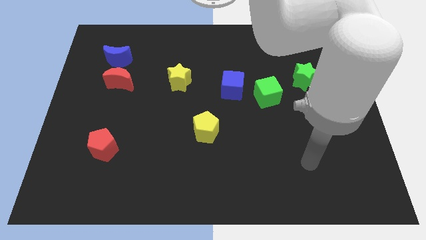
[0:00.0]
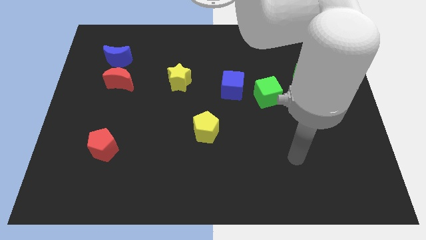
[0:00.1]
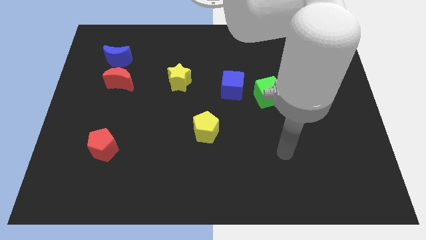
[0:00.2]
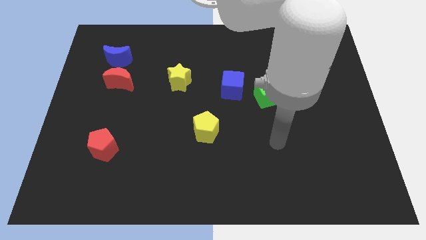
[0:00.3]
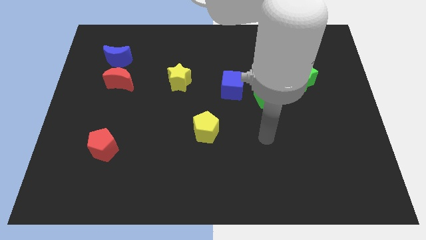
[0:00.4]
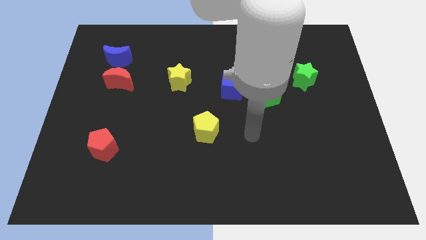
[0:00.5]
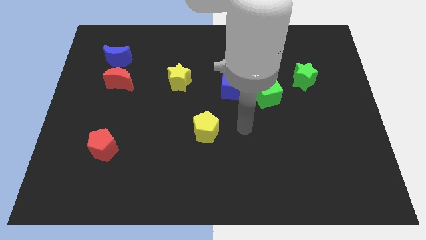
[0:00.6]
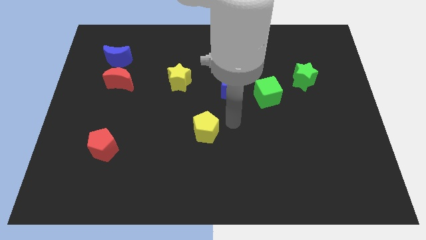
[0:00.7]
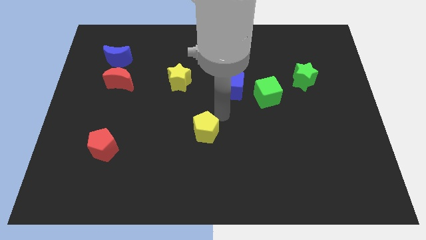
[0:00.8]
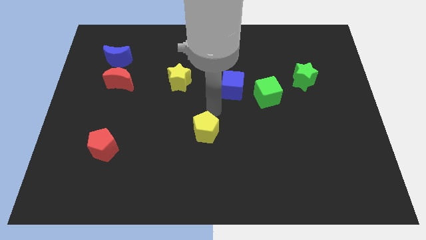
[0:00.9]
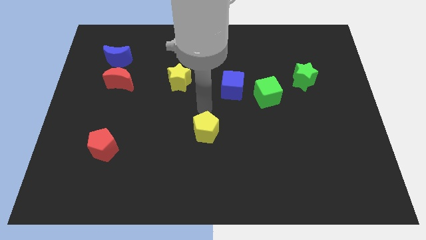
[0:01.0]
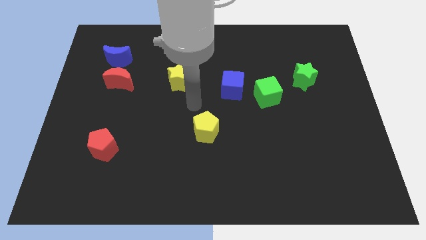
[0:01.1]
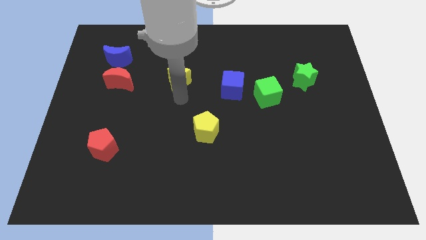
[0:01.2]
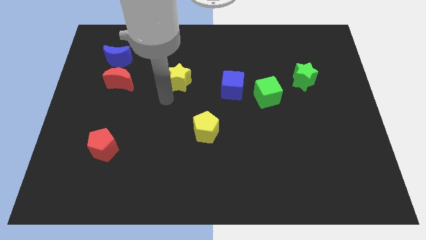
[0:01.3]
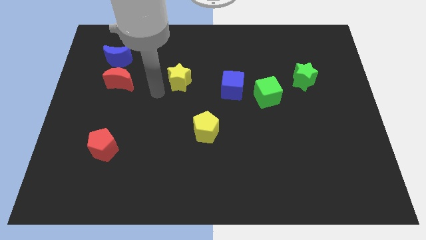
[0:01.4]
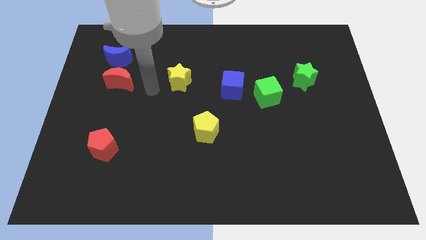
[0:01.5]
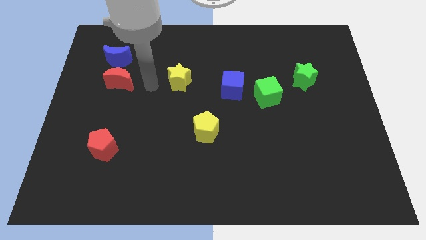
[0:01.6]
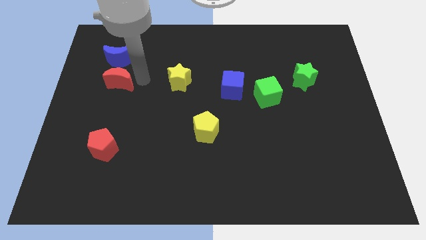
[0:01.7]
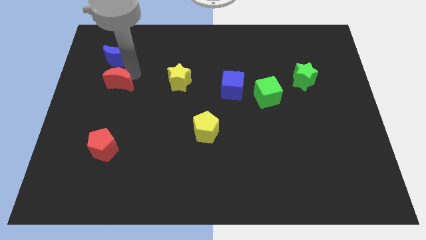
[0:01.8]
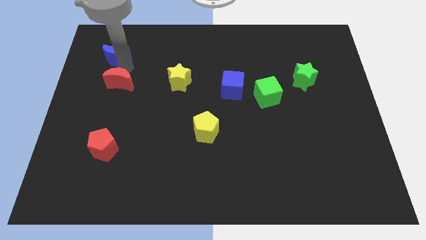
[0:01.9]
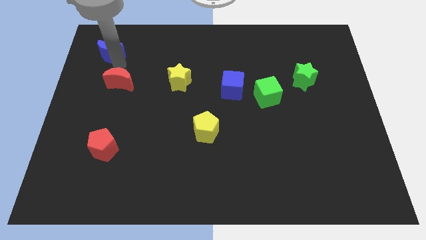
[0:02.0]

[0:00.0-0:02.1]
separate the red moon from the blue moon

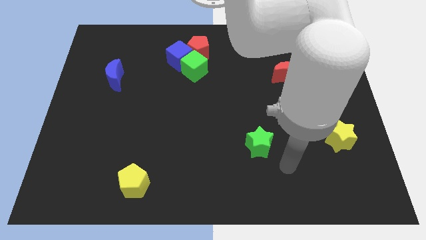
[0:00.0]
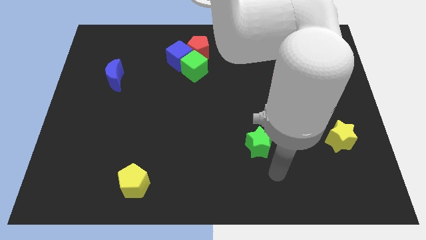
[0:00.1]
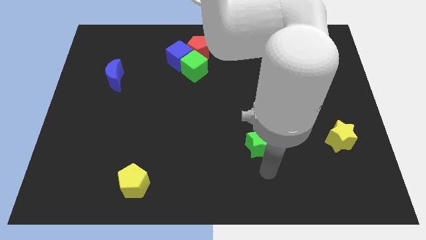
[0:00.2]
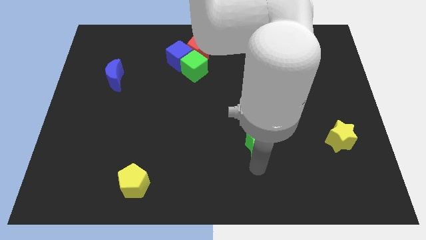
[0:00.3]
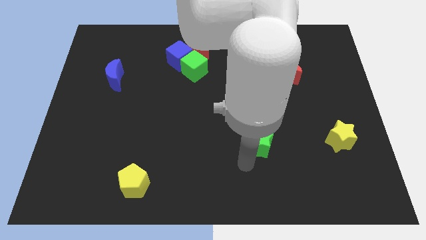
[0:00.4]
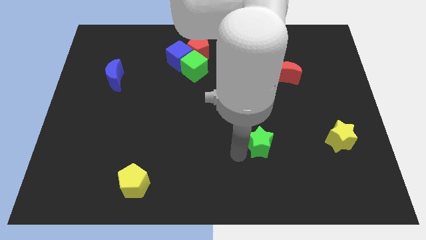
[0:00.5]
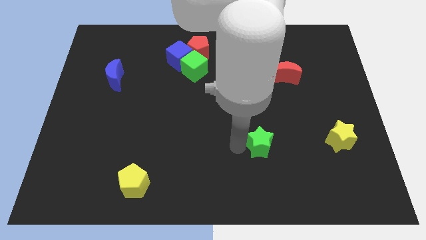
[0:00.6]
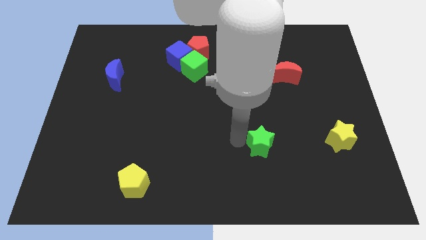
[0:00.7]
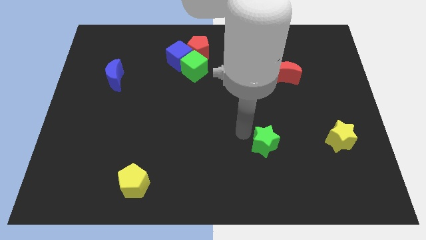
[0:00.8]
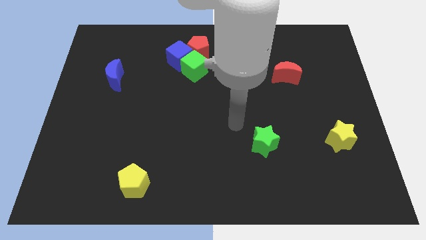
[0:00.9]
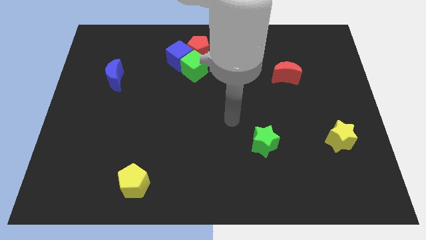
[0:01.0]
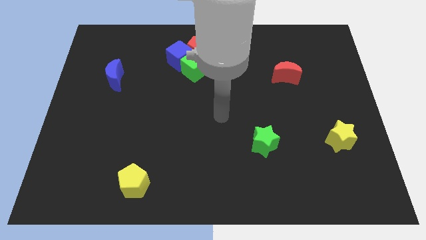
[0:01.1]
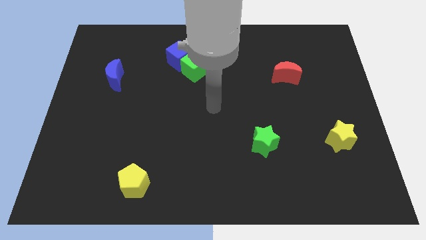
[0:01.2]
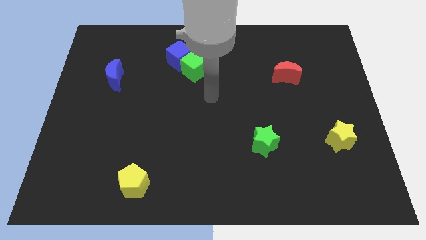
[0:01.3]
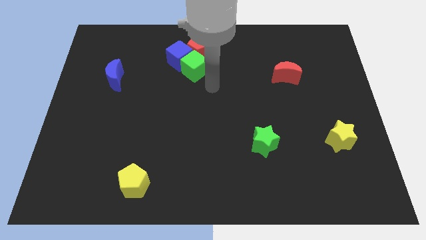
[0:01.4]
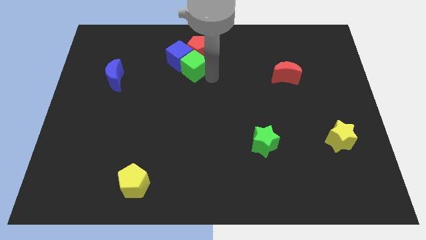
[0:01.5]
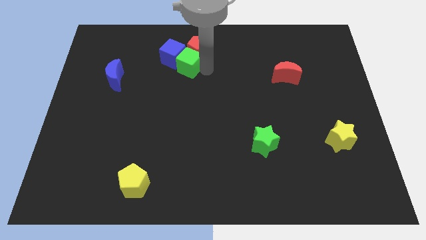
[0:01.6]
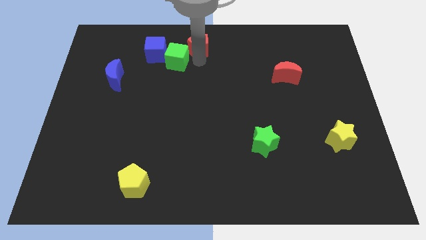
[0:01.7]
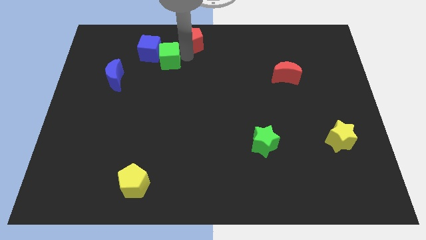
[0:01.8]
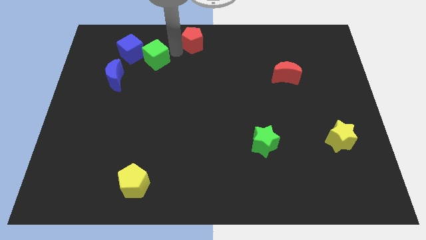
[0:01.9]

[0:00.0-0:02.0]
move the blue cube away from the green cube and red pentagon

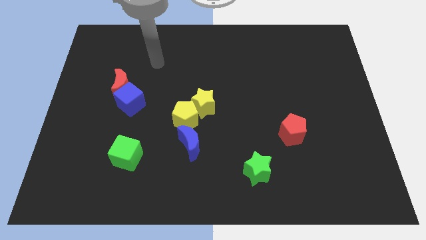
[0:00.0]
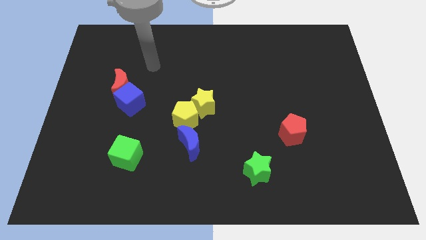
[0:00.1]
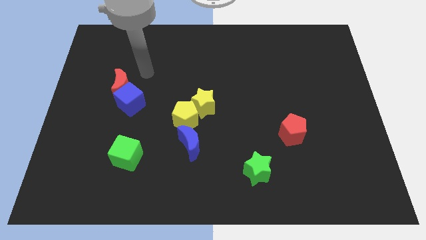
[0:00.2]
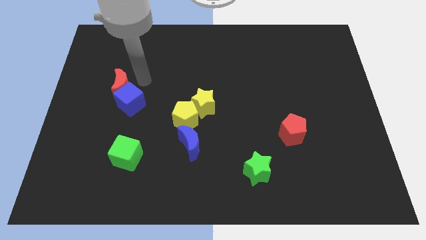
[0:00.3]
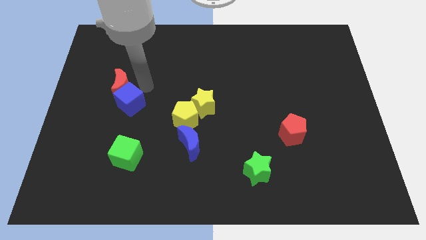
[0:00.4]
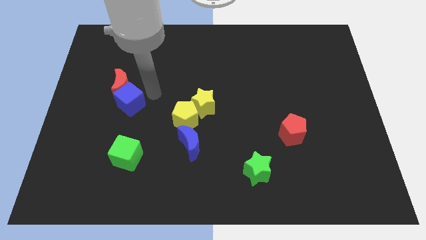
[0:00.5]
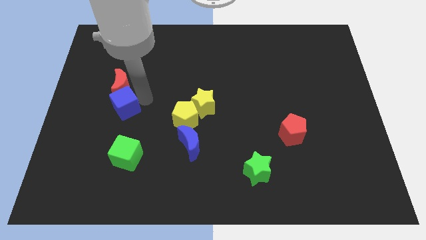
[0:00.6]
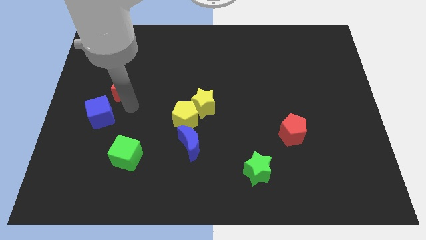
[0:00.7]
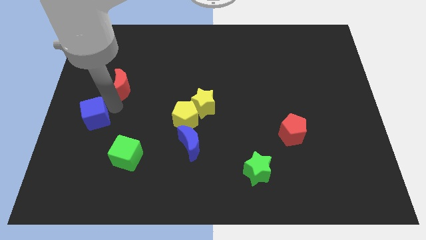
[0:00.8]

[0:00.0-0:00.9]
move the red moon away from the blue cube

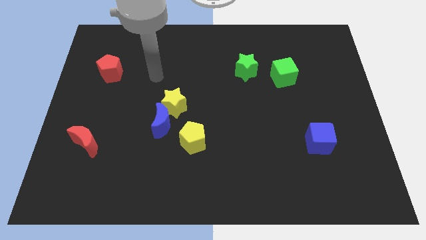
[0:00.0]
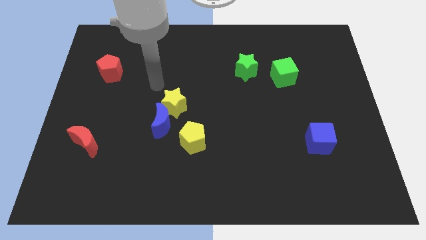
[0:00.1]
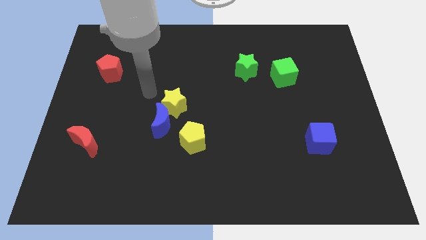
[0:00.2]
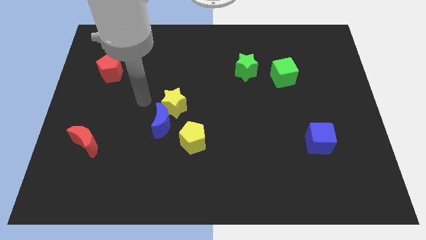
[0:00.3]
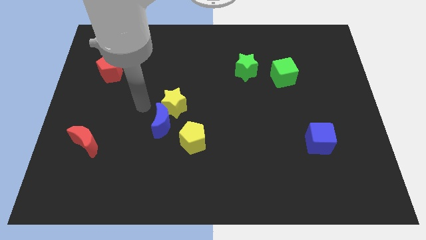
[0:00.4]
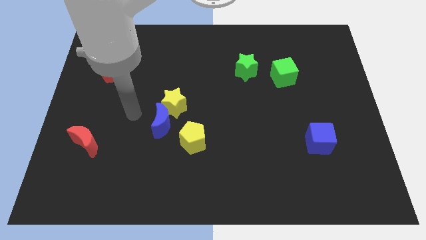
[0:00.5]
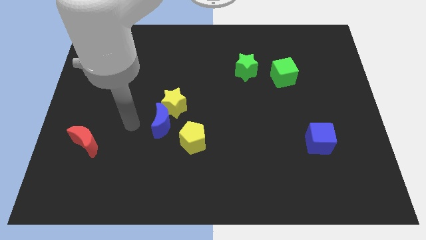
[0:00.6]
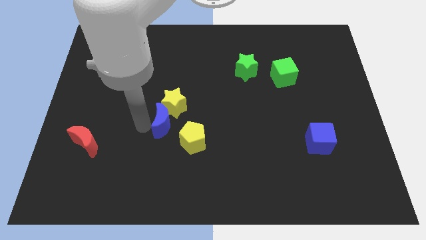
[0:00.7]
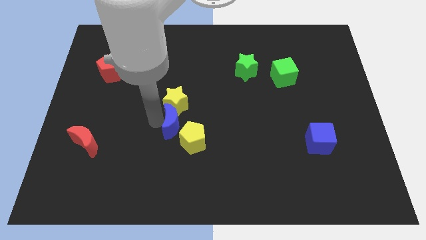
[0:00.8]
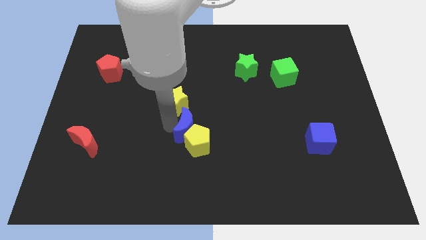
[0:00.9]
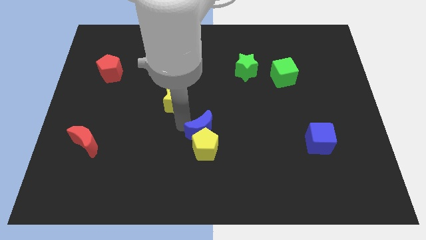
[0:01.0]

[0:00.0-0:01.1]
move the yellow star away from the blue moon

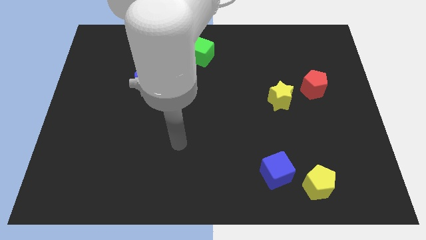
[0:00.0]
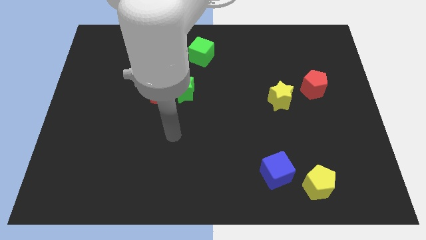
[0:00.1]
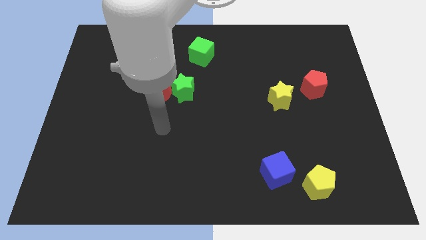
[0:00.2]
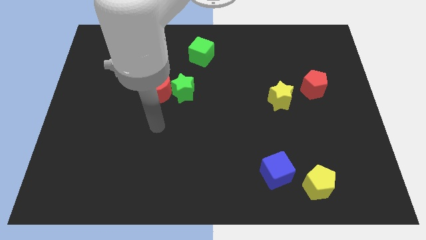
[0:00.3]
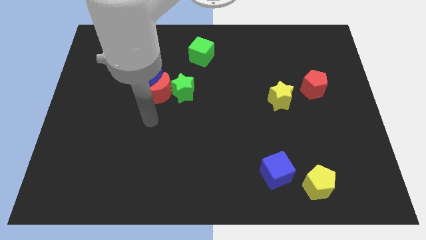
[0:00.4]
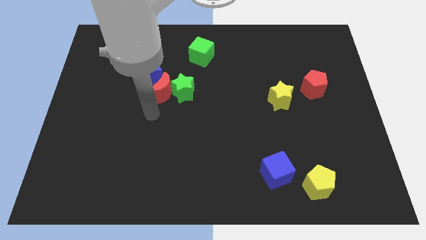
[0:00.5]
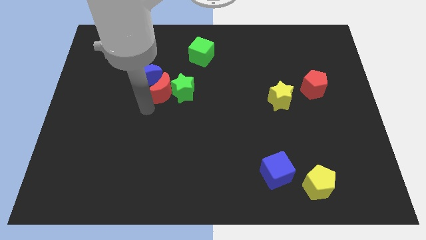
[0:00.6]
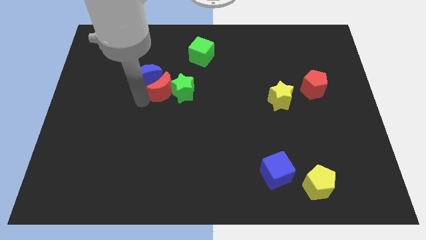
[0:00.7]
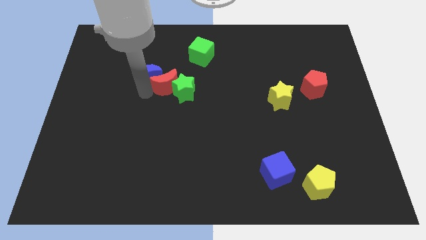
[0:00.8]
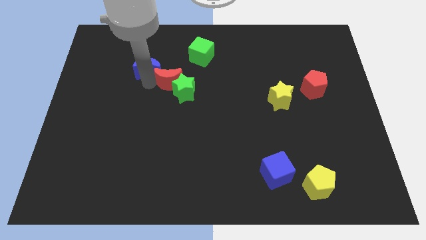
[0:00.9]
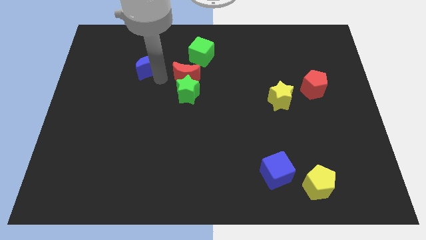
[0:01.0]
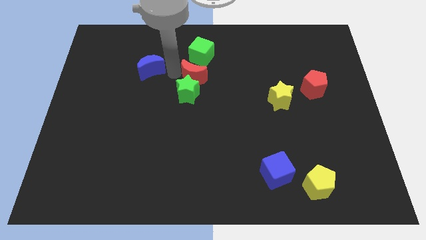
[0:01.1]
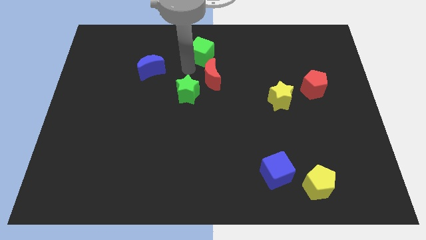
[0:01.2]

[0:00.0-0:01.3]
separate the red moon from the green star and blue moon

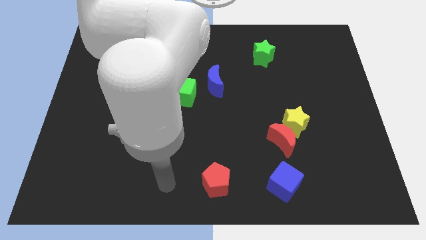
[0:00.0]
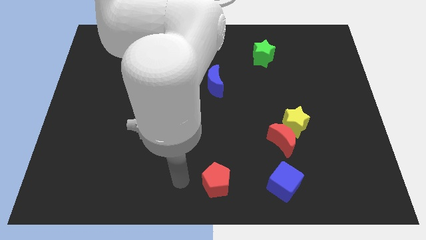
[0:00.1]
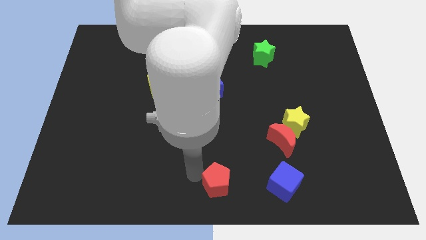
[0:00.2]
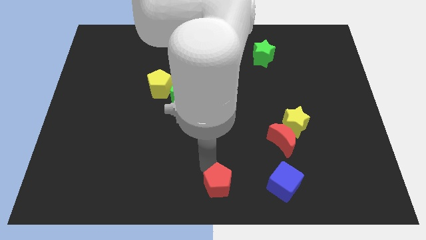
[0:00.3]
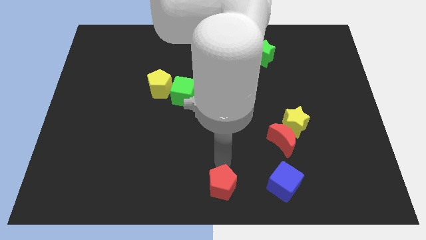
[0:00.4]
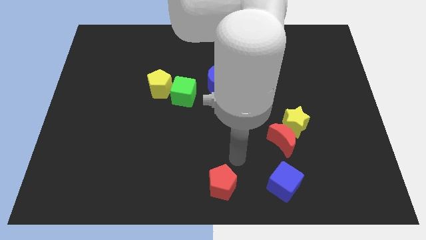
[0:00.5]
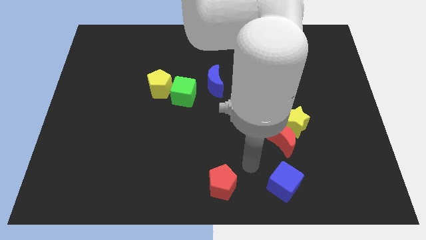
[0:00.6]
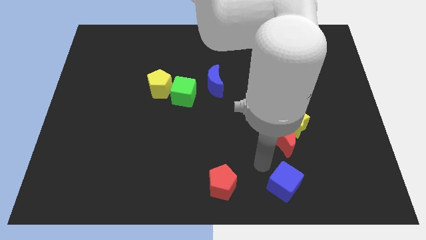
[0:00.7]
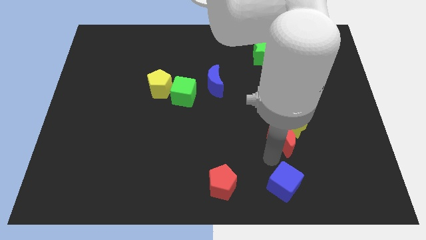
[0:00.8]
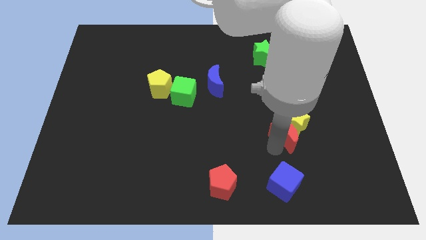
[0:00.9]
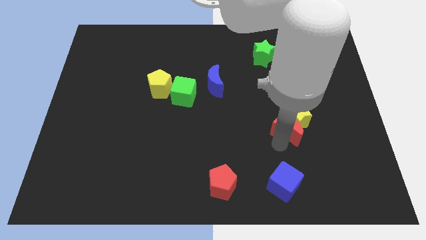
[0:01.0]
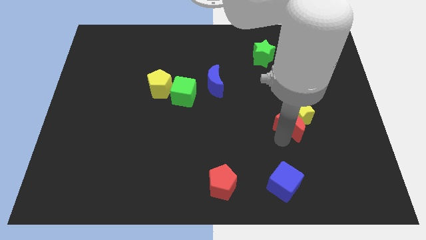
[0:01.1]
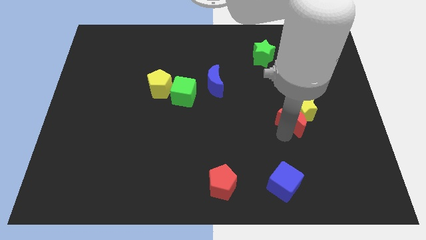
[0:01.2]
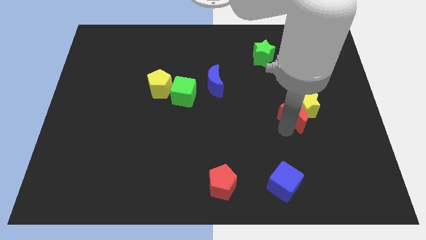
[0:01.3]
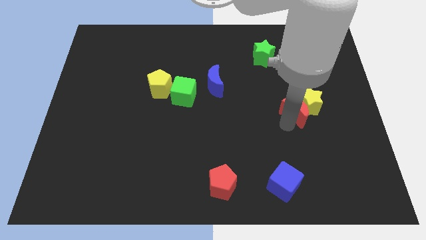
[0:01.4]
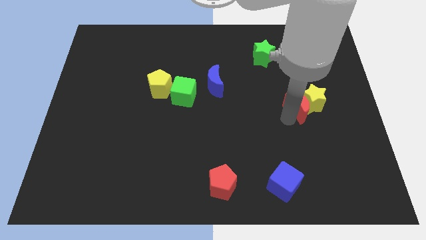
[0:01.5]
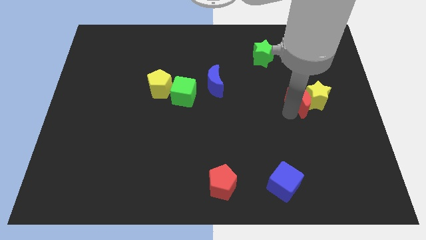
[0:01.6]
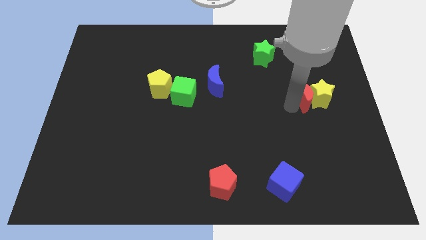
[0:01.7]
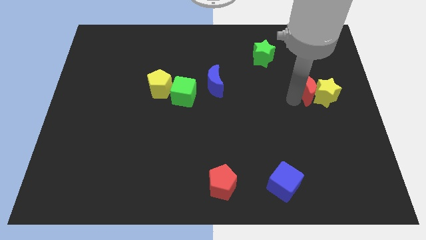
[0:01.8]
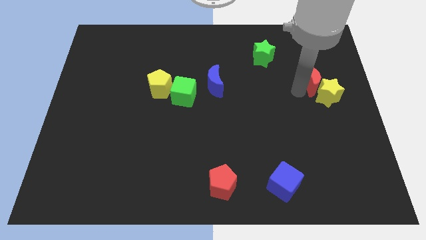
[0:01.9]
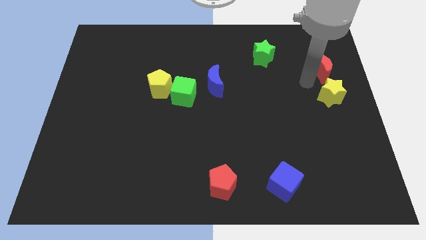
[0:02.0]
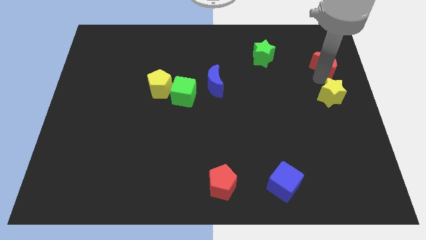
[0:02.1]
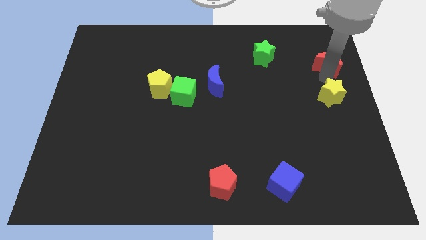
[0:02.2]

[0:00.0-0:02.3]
pull the yellow star apart from the red moon
